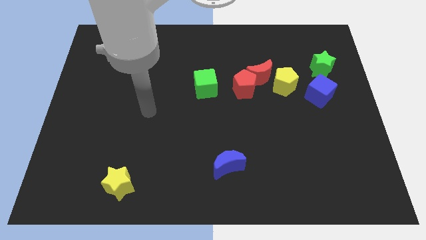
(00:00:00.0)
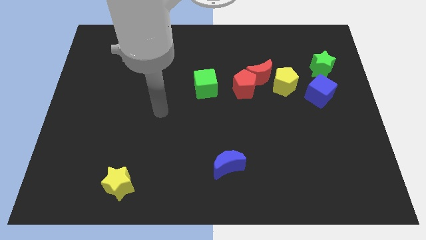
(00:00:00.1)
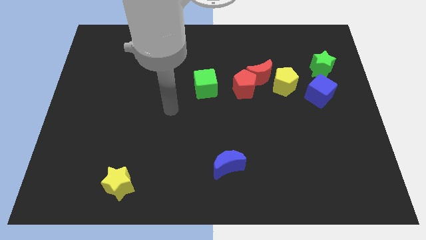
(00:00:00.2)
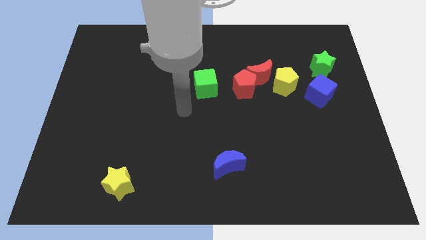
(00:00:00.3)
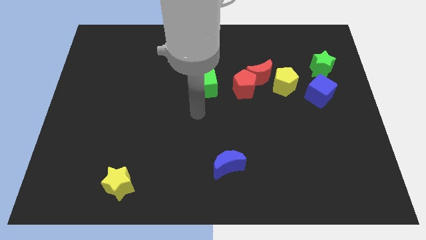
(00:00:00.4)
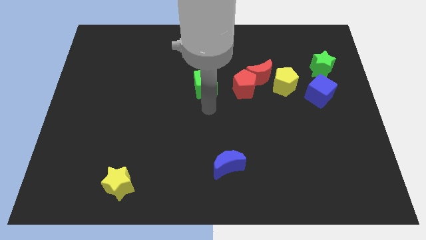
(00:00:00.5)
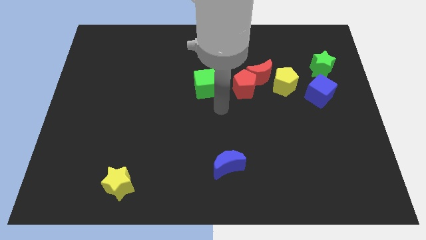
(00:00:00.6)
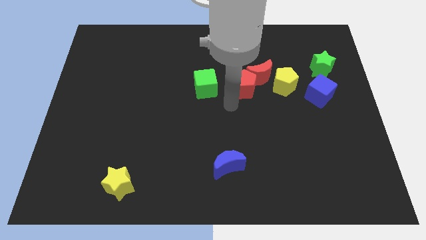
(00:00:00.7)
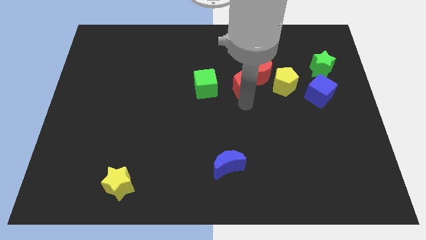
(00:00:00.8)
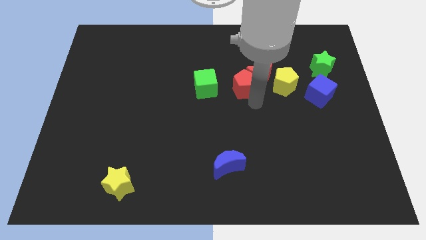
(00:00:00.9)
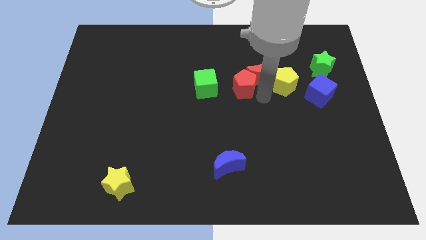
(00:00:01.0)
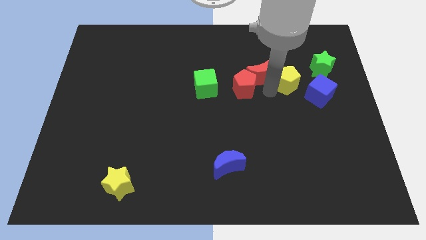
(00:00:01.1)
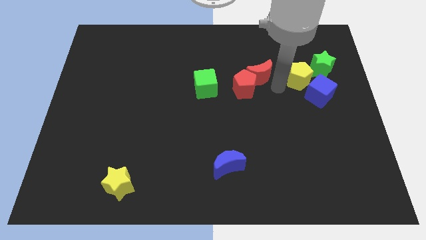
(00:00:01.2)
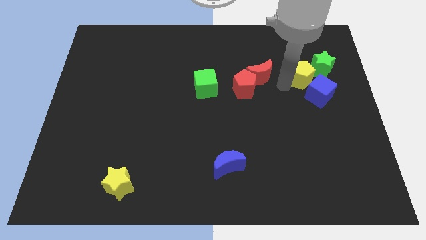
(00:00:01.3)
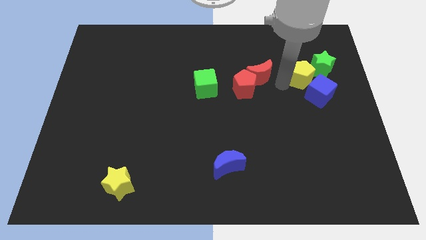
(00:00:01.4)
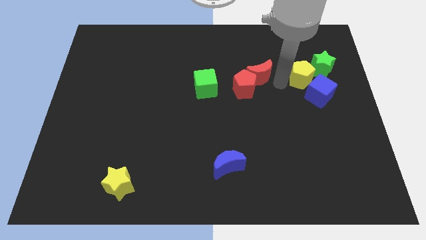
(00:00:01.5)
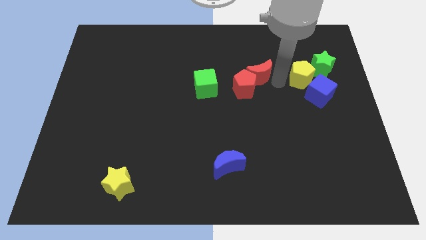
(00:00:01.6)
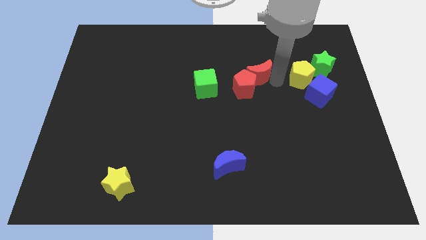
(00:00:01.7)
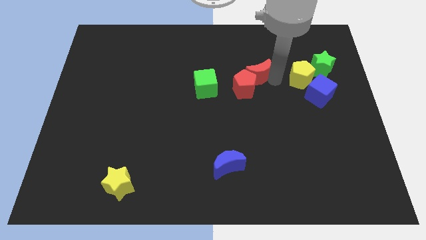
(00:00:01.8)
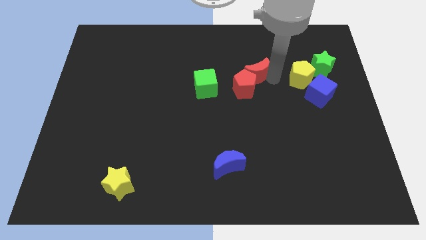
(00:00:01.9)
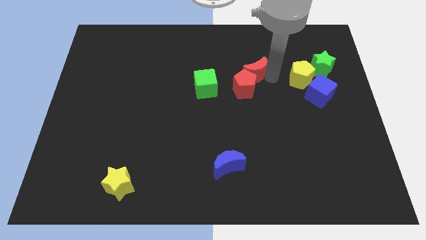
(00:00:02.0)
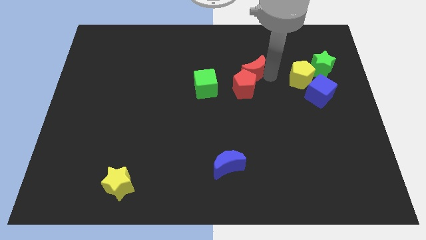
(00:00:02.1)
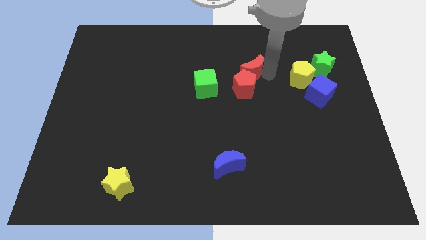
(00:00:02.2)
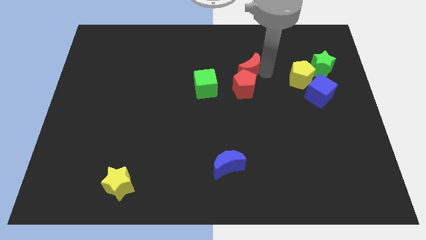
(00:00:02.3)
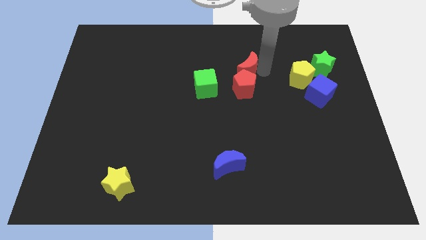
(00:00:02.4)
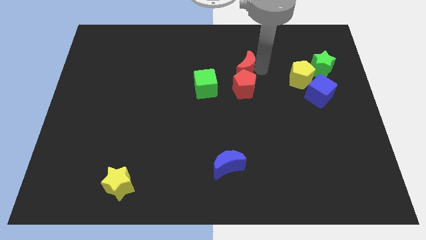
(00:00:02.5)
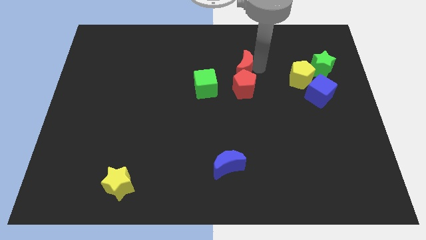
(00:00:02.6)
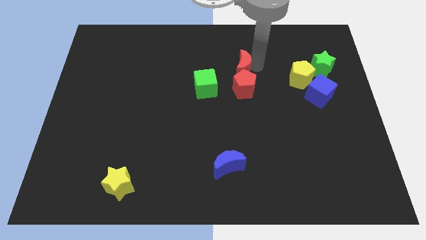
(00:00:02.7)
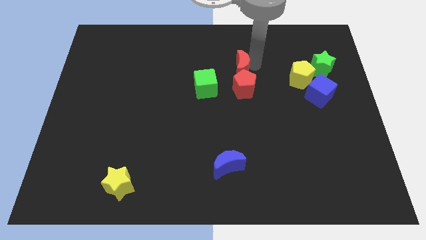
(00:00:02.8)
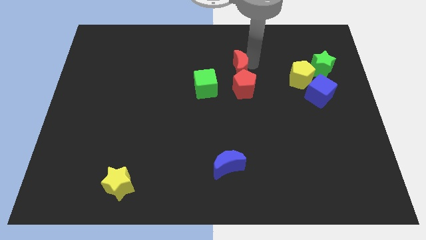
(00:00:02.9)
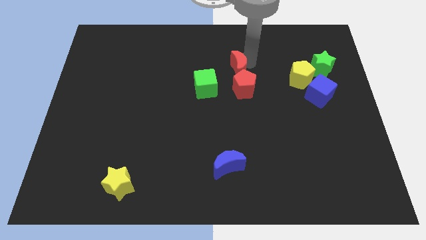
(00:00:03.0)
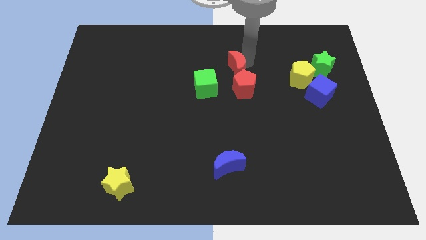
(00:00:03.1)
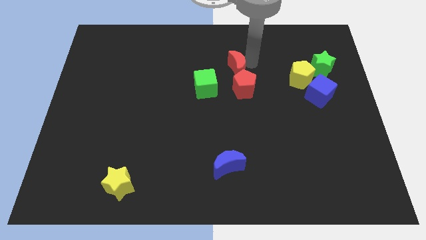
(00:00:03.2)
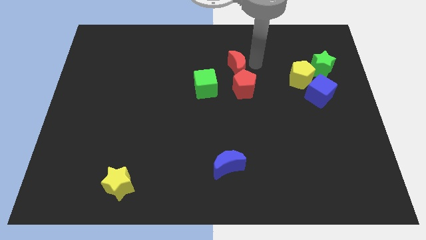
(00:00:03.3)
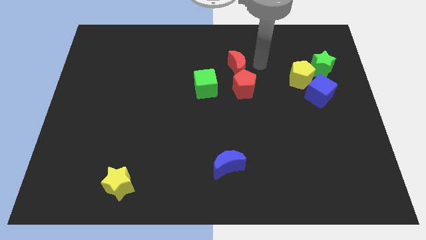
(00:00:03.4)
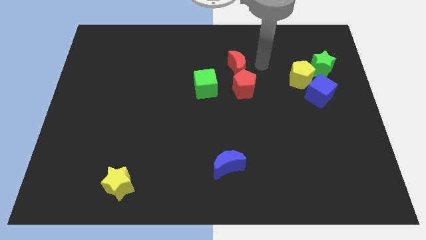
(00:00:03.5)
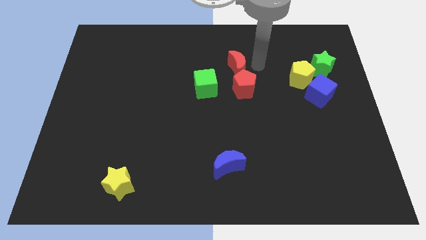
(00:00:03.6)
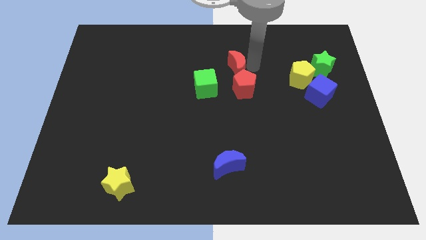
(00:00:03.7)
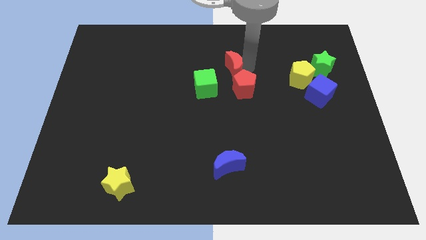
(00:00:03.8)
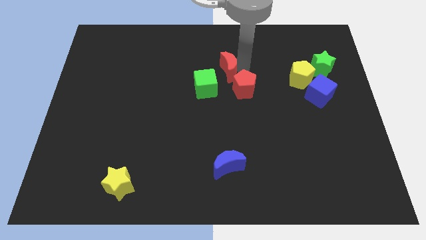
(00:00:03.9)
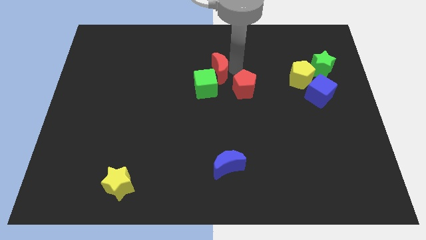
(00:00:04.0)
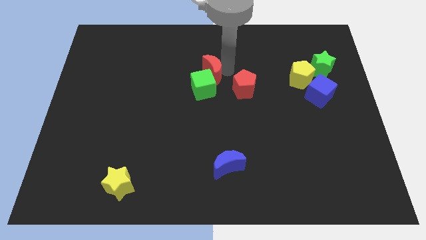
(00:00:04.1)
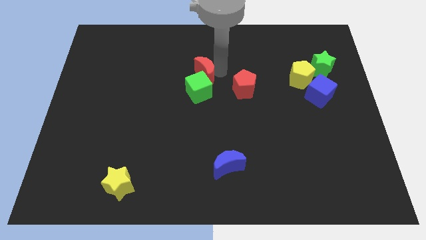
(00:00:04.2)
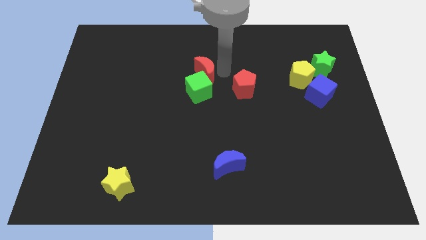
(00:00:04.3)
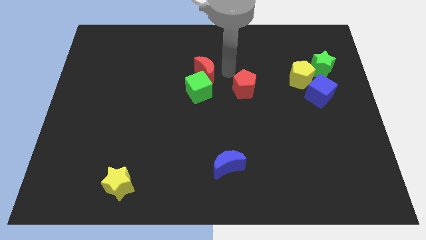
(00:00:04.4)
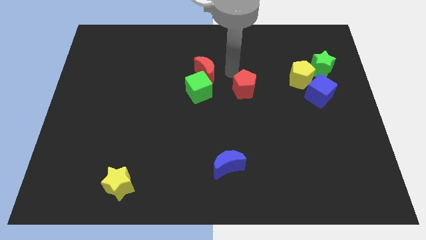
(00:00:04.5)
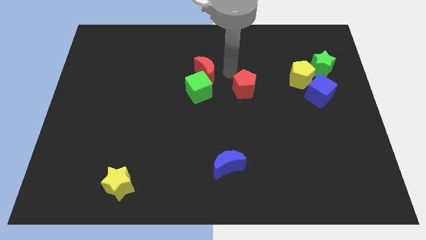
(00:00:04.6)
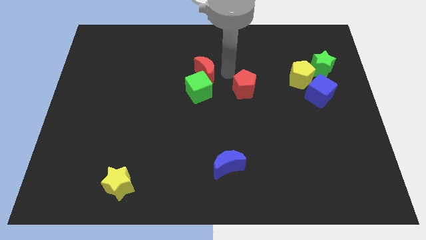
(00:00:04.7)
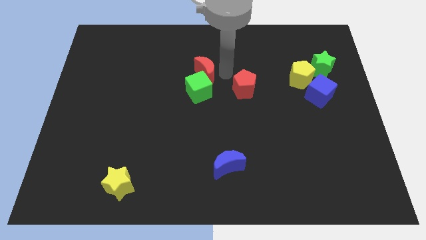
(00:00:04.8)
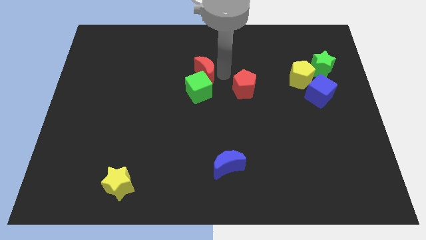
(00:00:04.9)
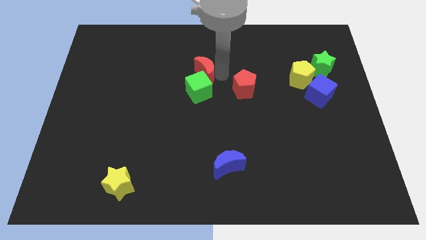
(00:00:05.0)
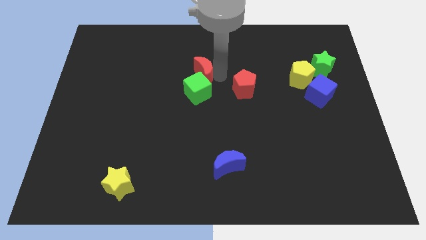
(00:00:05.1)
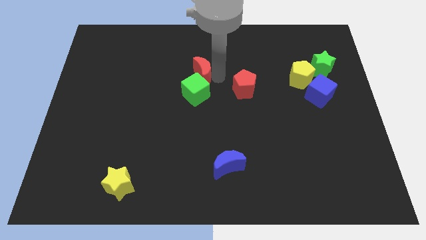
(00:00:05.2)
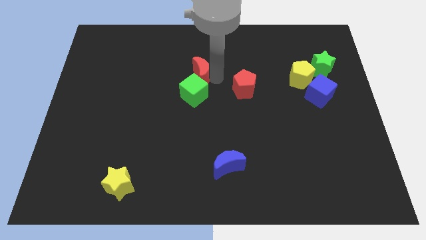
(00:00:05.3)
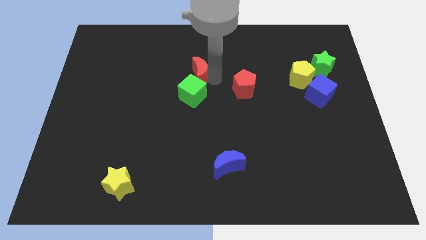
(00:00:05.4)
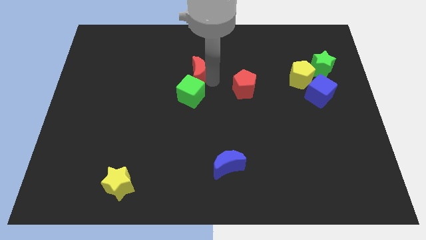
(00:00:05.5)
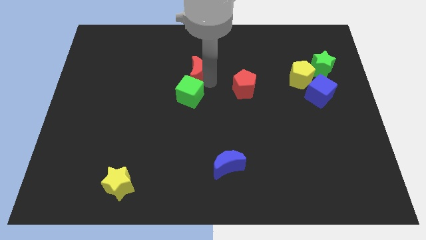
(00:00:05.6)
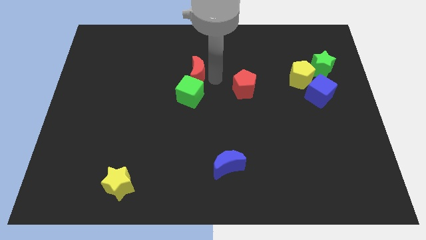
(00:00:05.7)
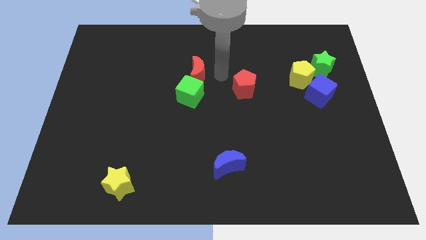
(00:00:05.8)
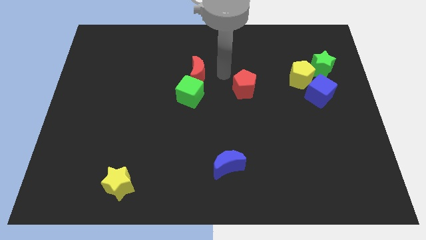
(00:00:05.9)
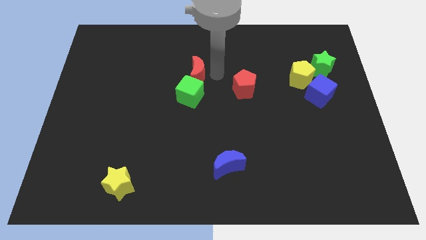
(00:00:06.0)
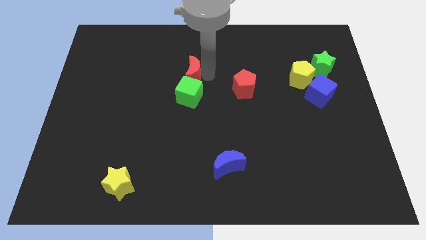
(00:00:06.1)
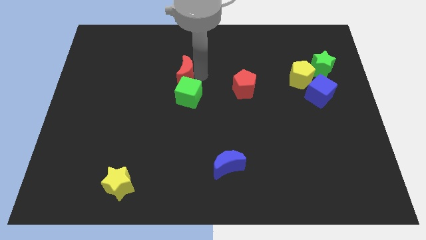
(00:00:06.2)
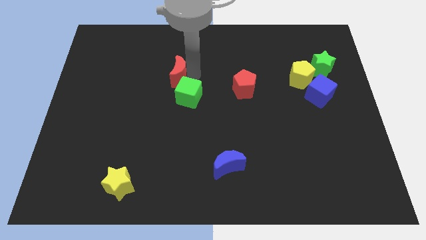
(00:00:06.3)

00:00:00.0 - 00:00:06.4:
slide the red moon to the left

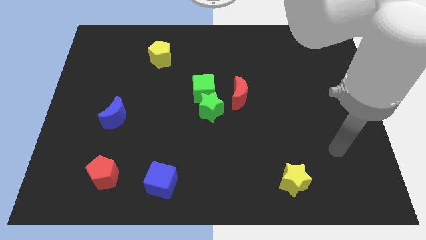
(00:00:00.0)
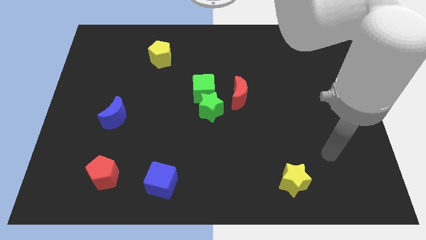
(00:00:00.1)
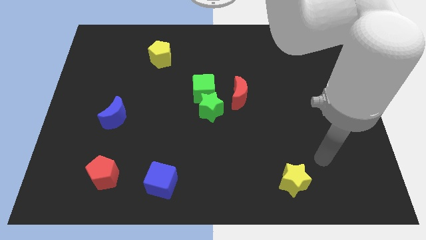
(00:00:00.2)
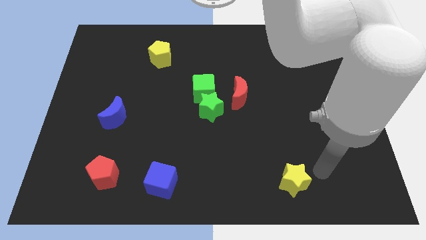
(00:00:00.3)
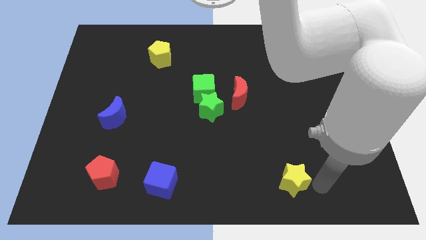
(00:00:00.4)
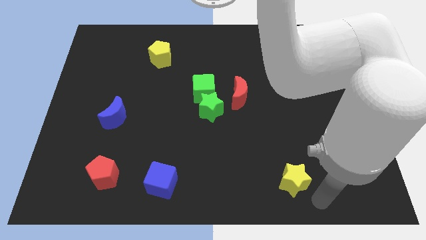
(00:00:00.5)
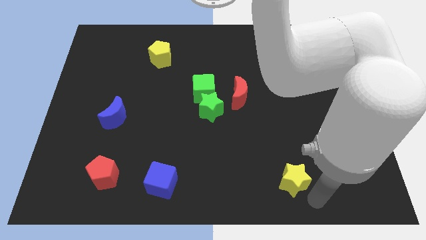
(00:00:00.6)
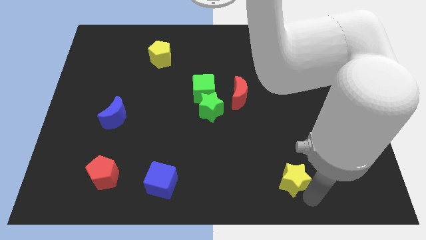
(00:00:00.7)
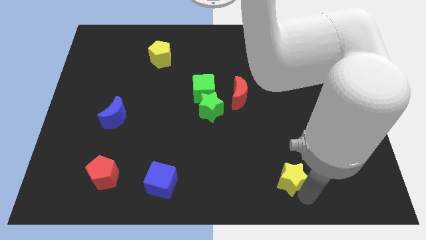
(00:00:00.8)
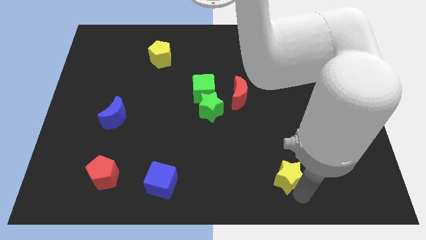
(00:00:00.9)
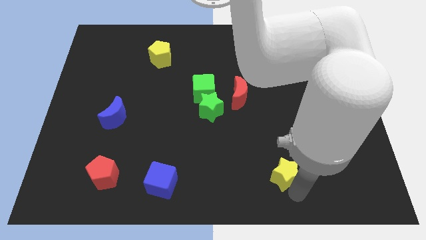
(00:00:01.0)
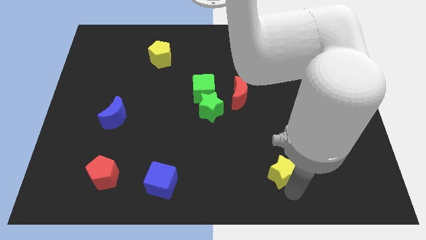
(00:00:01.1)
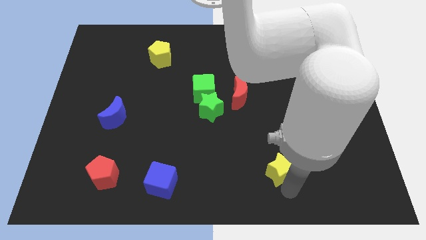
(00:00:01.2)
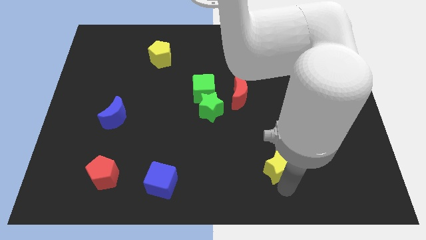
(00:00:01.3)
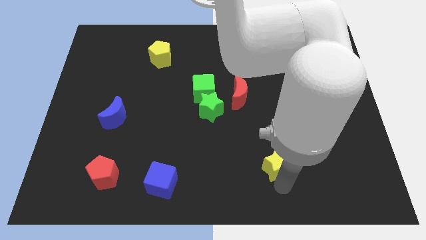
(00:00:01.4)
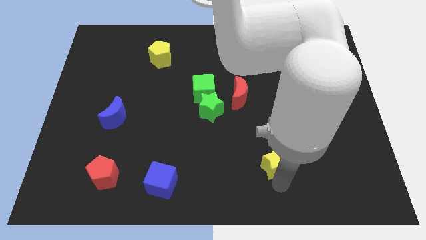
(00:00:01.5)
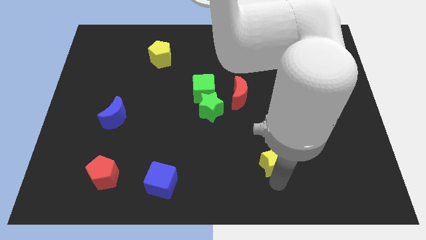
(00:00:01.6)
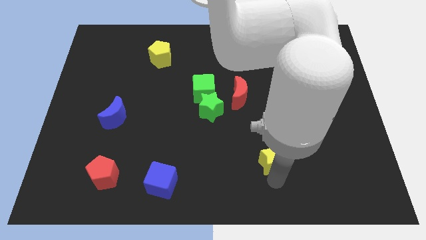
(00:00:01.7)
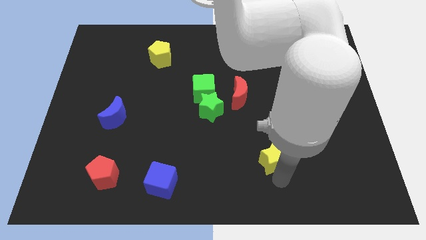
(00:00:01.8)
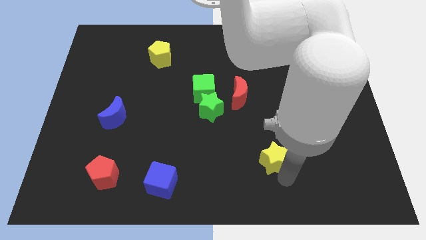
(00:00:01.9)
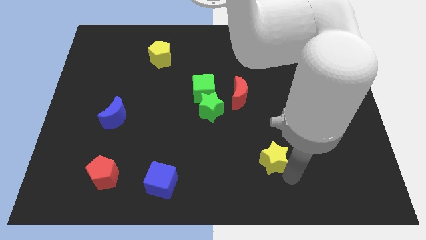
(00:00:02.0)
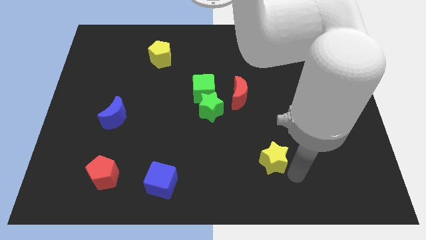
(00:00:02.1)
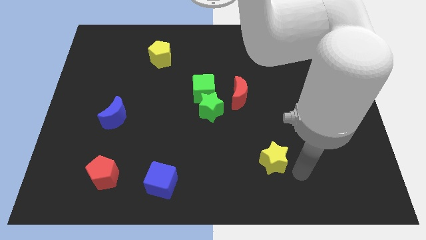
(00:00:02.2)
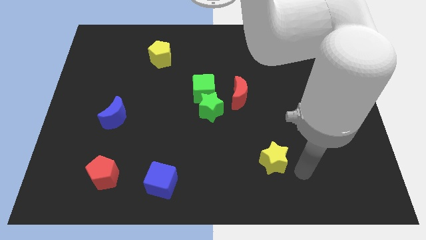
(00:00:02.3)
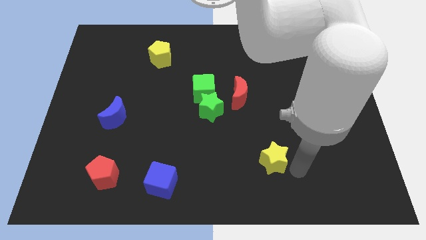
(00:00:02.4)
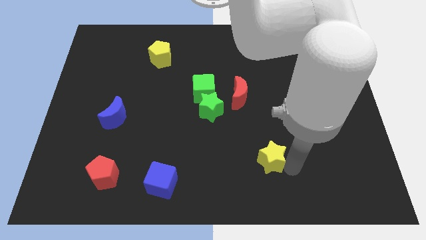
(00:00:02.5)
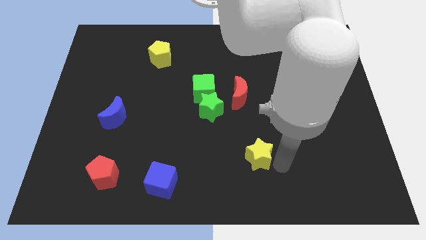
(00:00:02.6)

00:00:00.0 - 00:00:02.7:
push the yellow star a bit up and to the left
